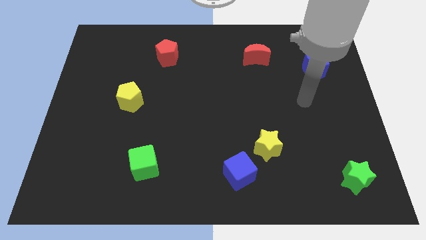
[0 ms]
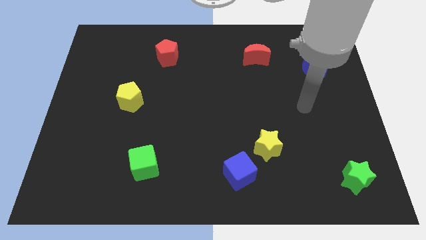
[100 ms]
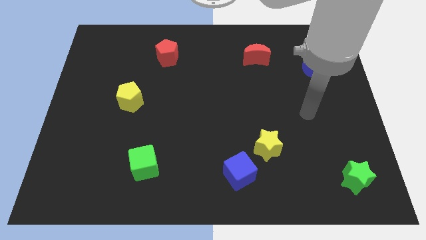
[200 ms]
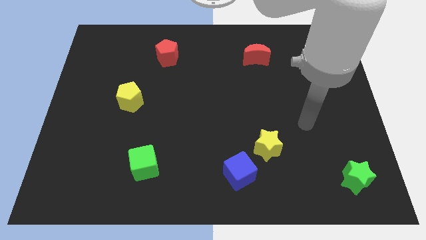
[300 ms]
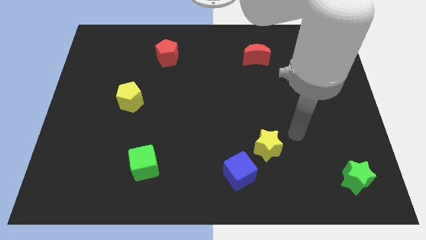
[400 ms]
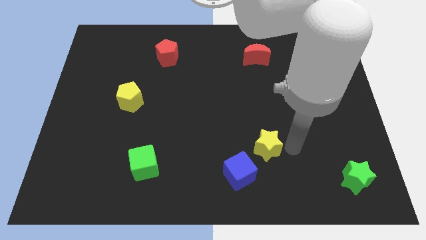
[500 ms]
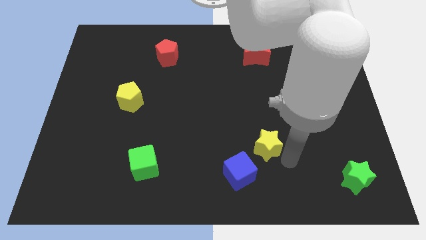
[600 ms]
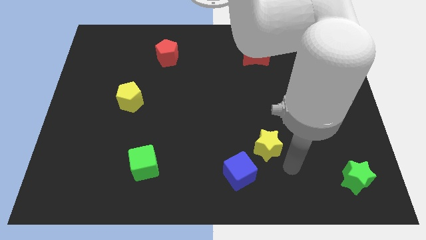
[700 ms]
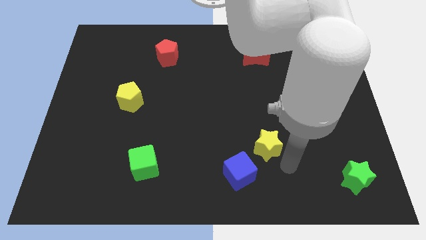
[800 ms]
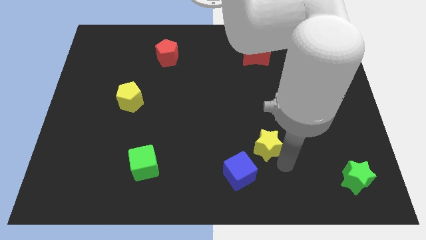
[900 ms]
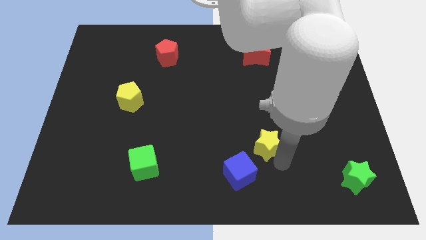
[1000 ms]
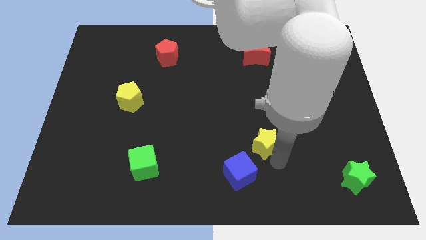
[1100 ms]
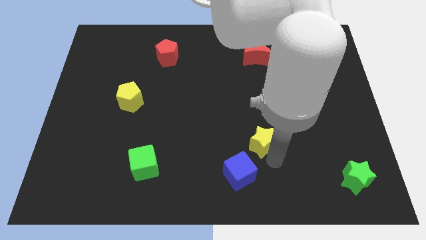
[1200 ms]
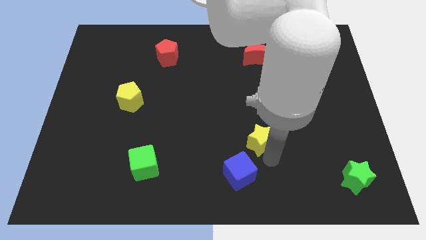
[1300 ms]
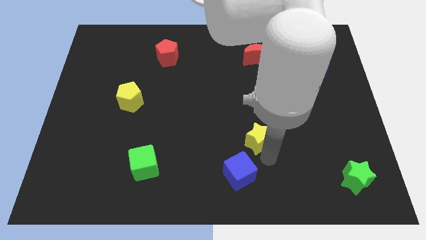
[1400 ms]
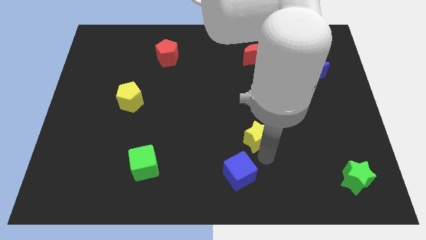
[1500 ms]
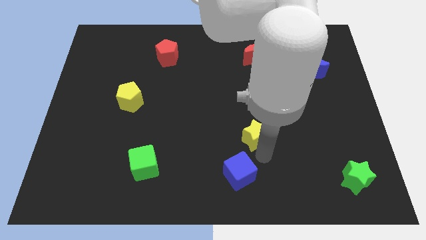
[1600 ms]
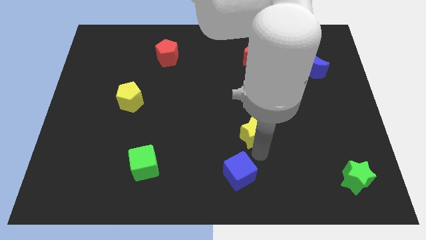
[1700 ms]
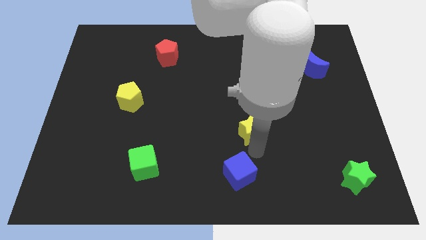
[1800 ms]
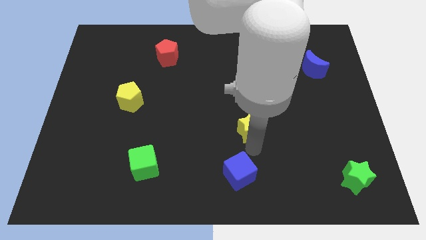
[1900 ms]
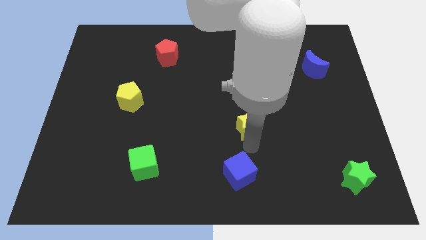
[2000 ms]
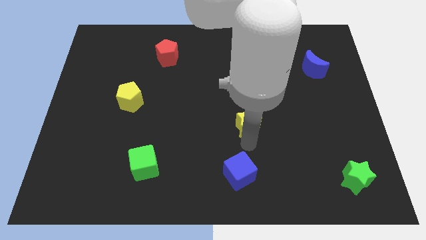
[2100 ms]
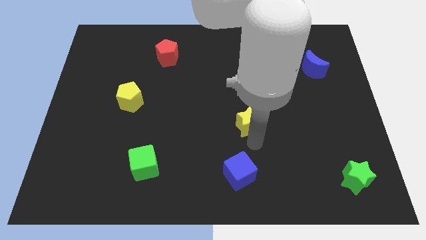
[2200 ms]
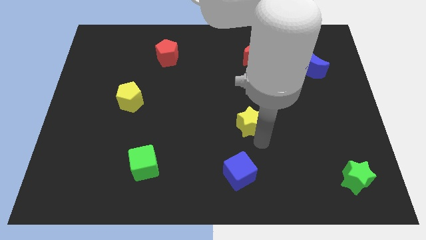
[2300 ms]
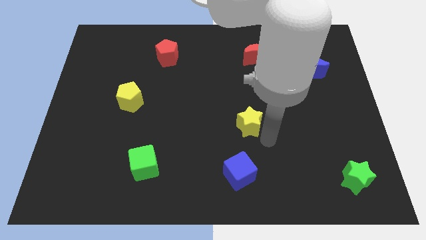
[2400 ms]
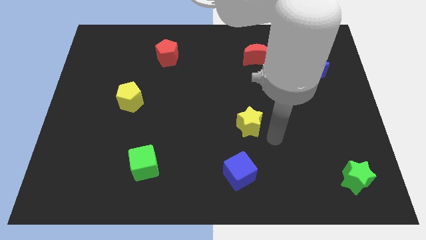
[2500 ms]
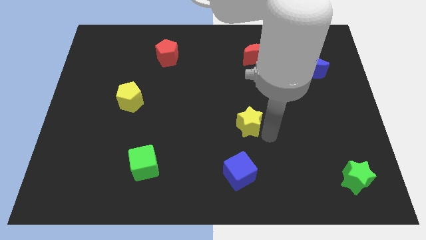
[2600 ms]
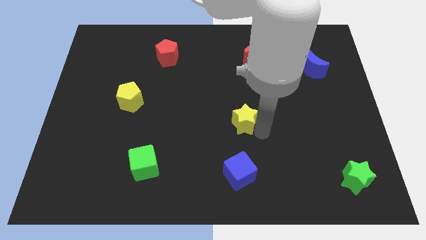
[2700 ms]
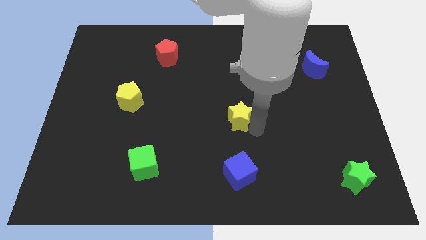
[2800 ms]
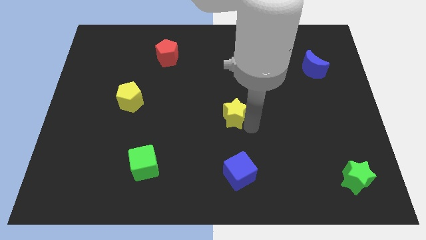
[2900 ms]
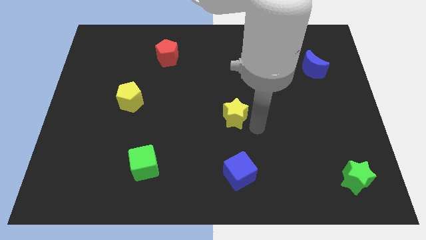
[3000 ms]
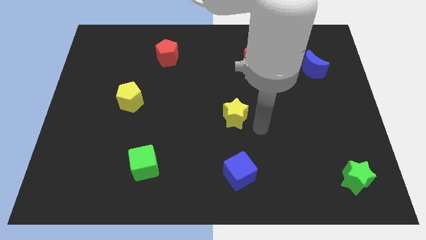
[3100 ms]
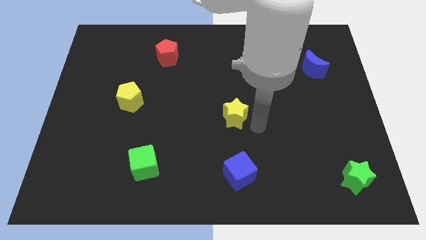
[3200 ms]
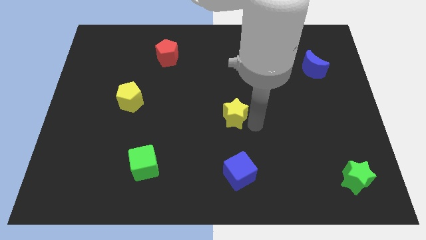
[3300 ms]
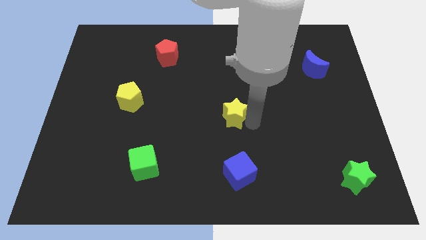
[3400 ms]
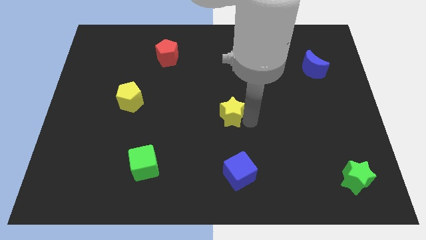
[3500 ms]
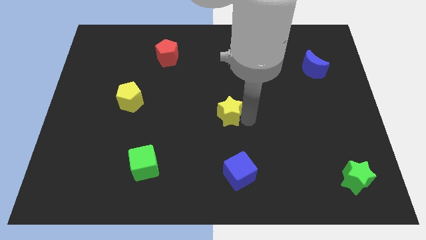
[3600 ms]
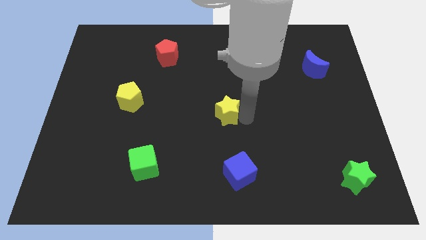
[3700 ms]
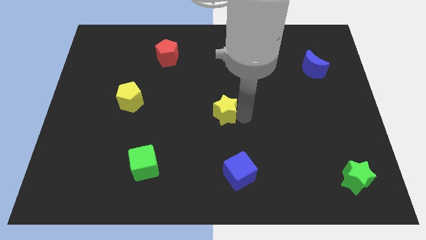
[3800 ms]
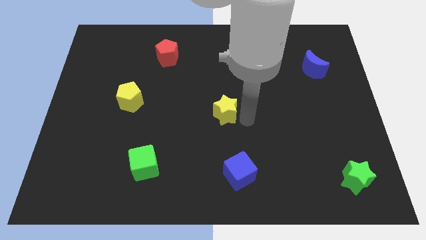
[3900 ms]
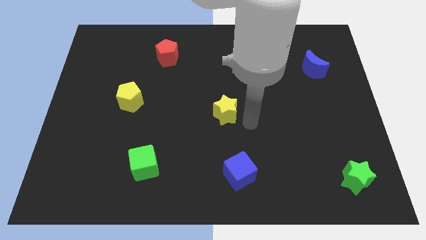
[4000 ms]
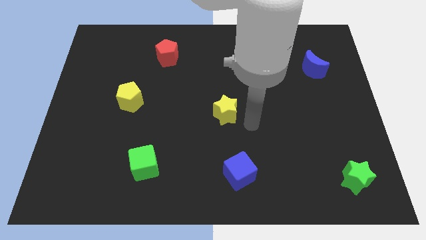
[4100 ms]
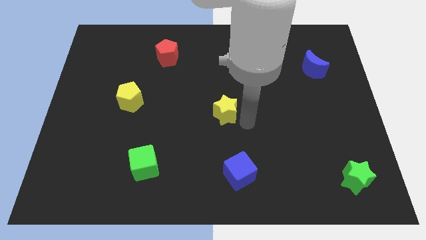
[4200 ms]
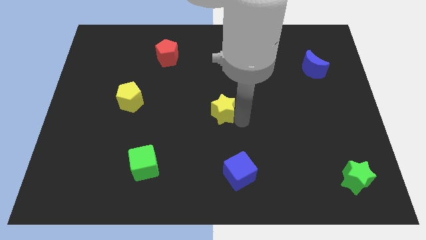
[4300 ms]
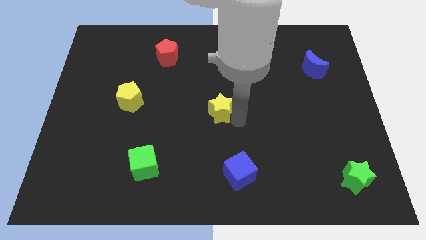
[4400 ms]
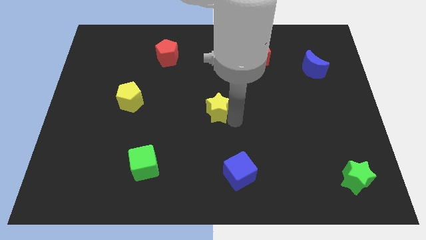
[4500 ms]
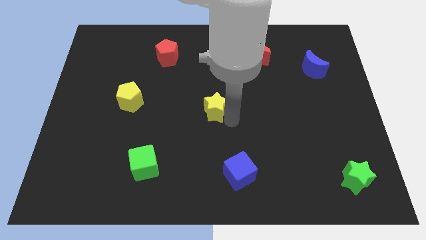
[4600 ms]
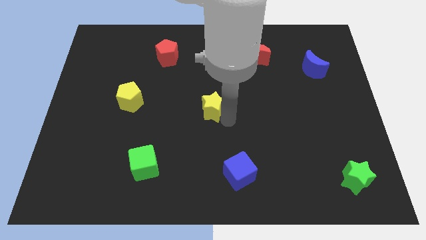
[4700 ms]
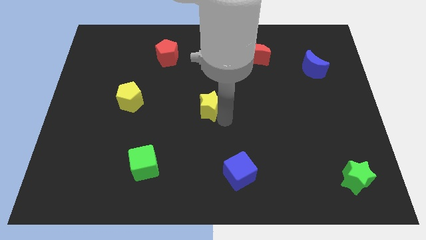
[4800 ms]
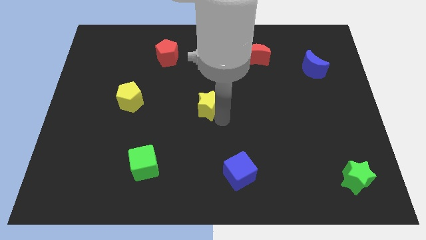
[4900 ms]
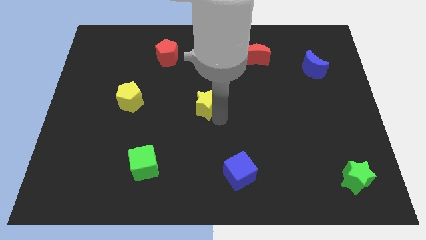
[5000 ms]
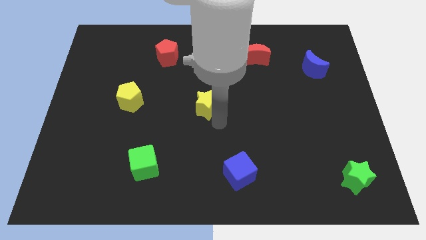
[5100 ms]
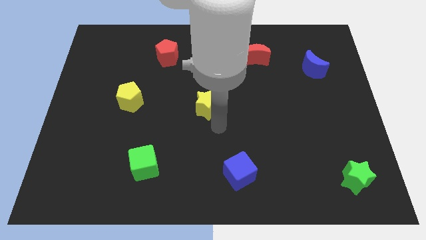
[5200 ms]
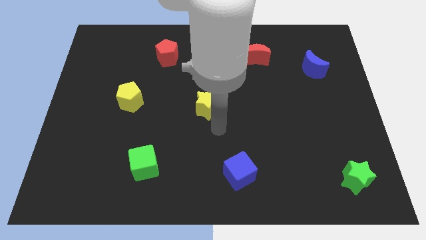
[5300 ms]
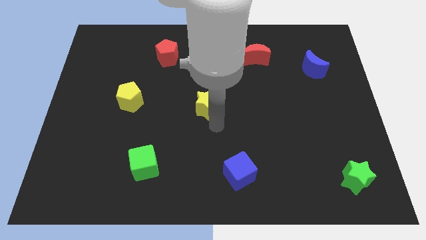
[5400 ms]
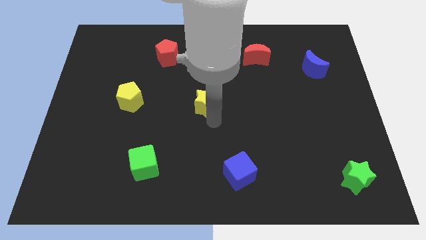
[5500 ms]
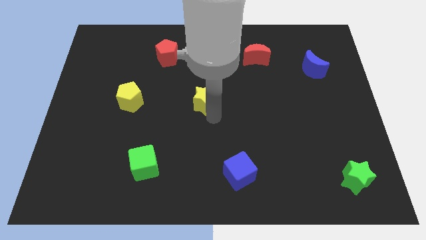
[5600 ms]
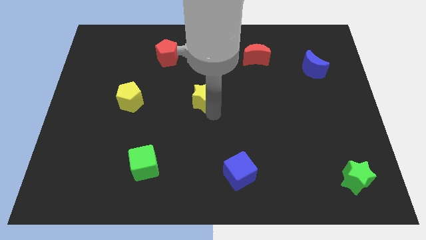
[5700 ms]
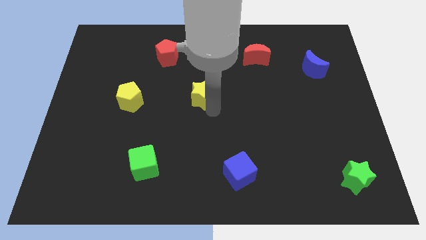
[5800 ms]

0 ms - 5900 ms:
slide the yellow star upwards and to the left

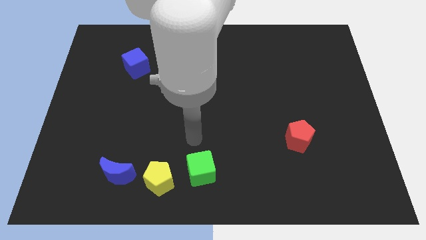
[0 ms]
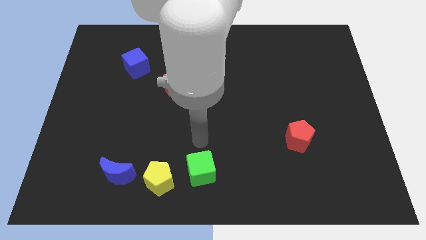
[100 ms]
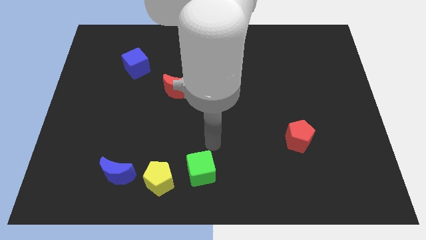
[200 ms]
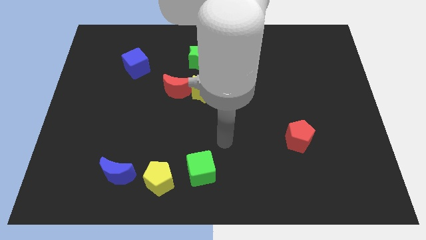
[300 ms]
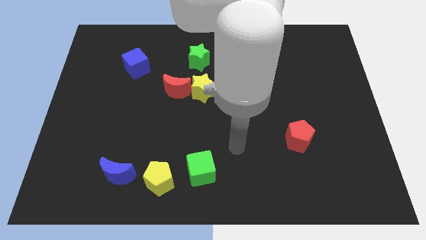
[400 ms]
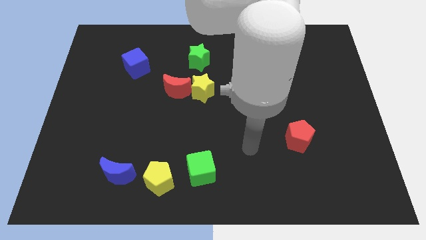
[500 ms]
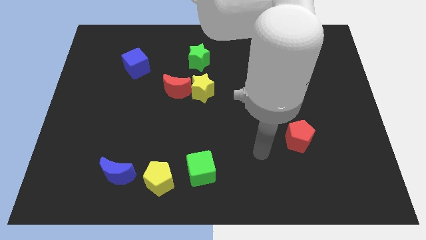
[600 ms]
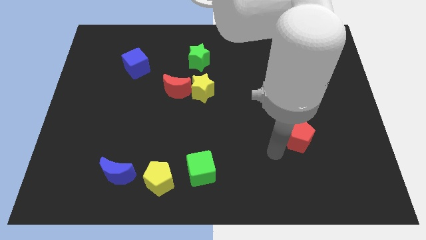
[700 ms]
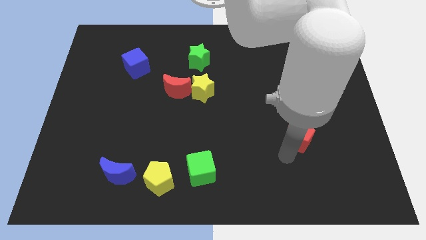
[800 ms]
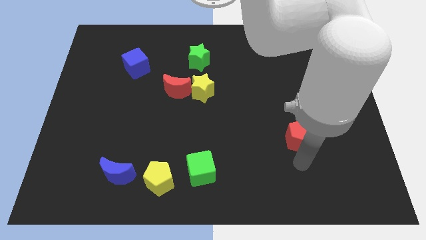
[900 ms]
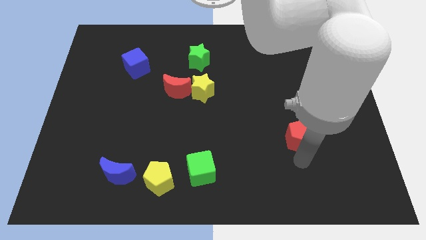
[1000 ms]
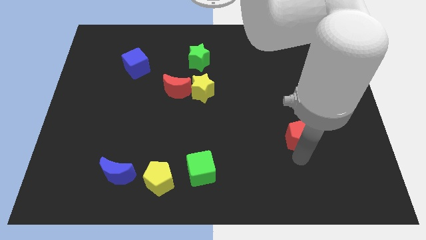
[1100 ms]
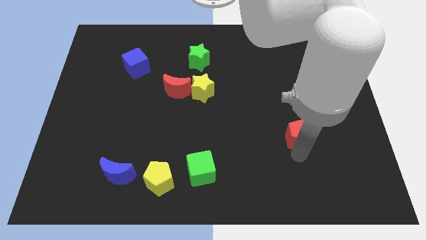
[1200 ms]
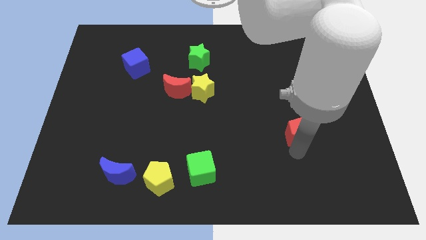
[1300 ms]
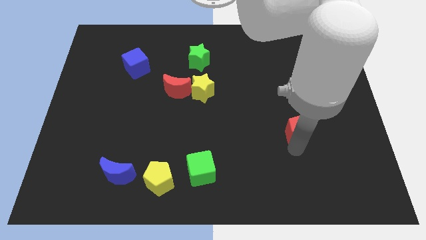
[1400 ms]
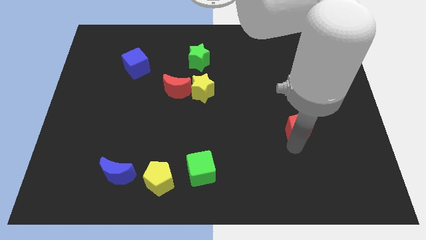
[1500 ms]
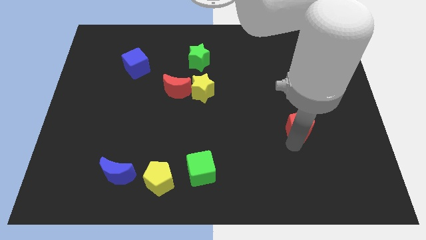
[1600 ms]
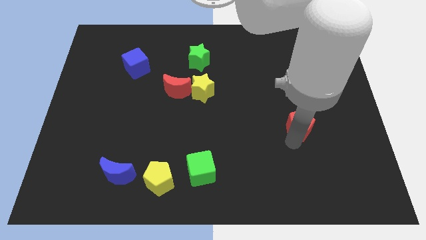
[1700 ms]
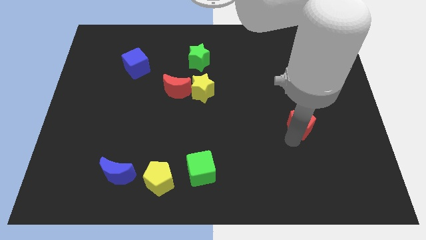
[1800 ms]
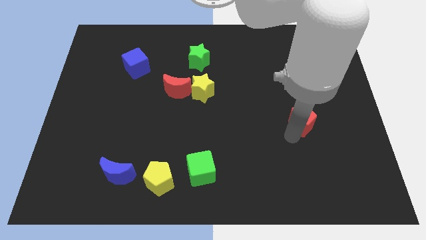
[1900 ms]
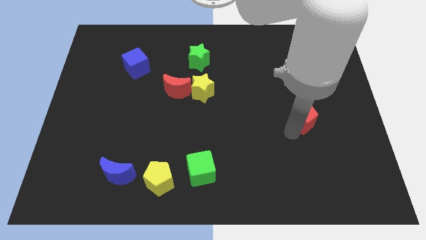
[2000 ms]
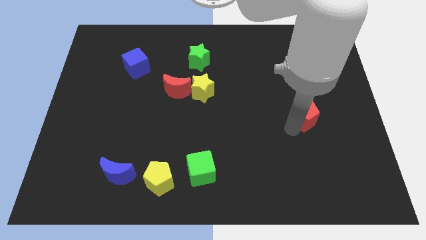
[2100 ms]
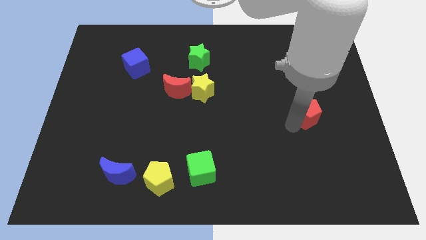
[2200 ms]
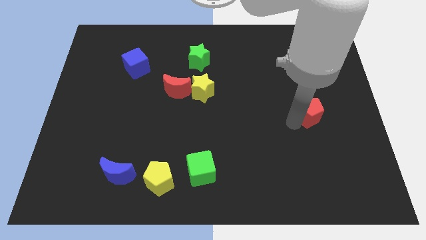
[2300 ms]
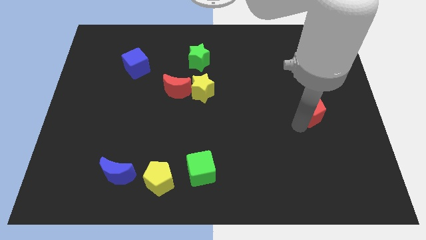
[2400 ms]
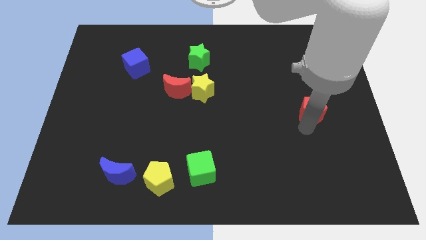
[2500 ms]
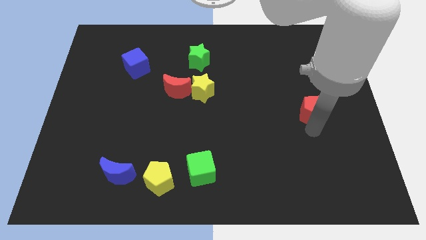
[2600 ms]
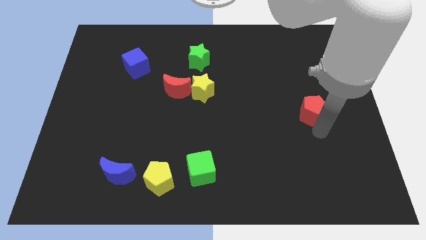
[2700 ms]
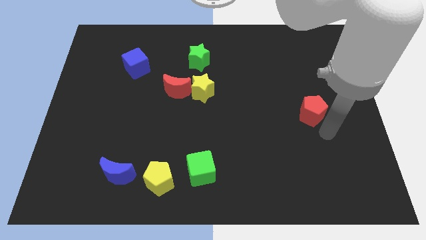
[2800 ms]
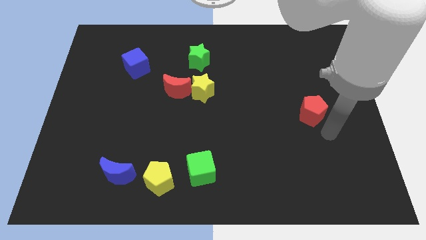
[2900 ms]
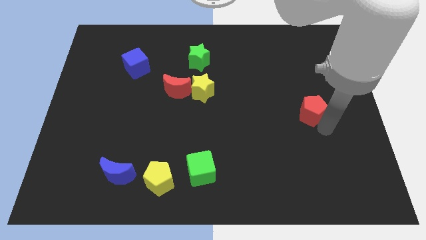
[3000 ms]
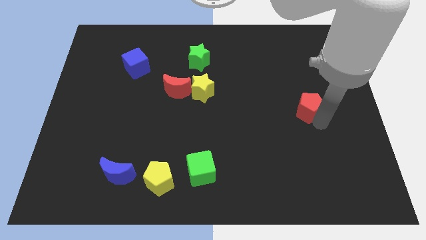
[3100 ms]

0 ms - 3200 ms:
move the red pentagon a little bit up
